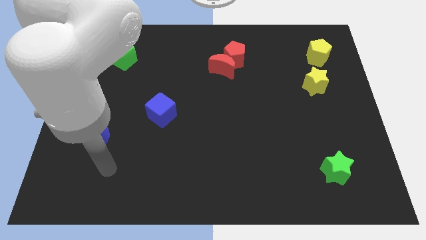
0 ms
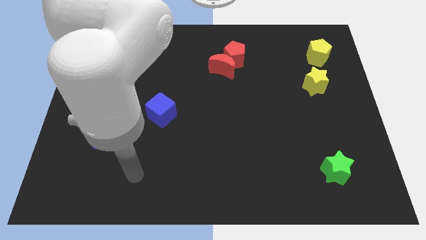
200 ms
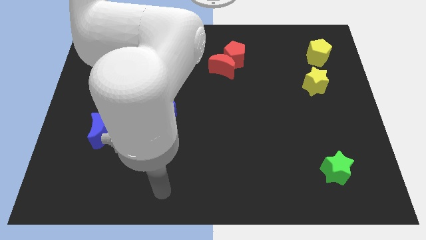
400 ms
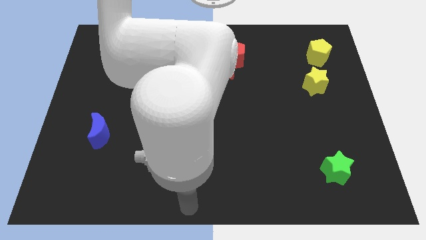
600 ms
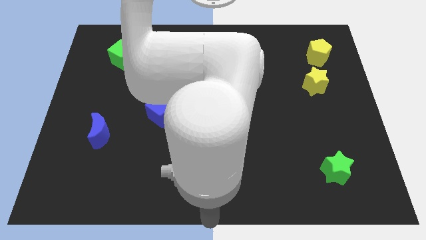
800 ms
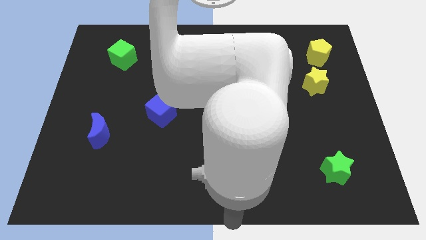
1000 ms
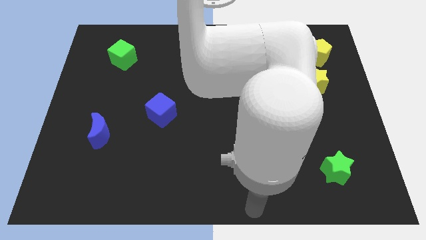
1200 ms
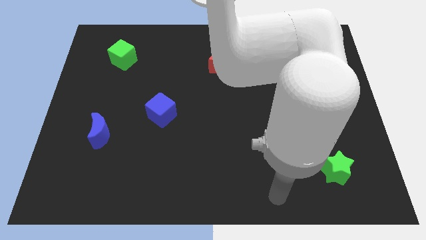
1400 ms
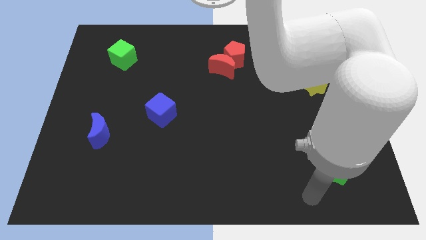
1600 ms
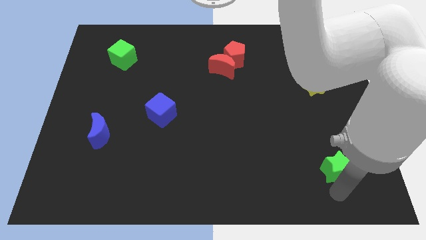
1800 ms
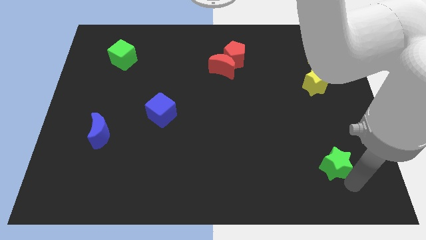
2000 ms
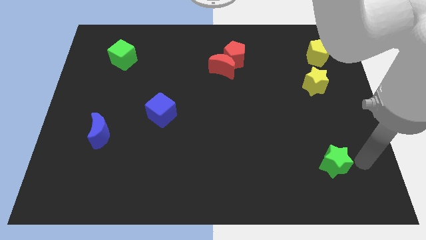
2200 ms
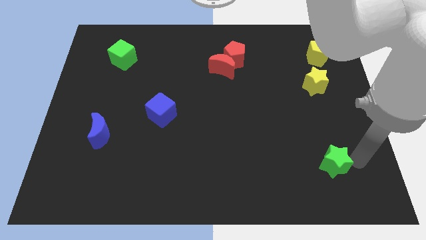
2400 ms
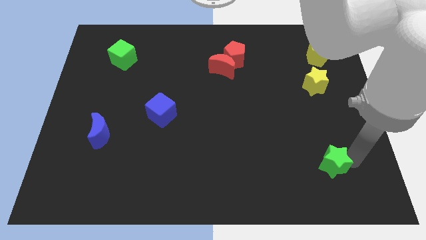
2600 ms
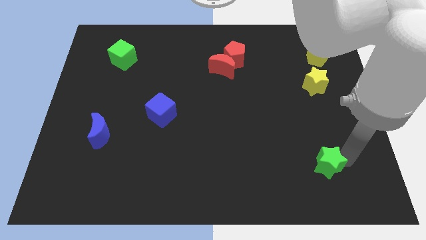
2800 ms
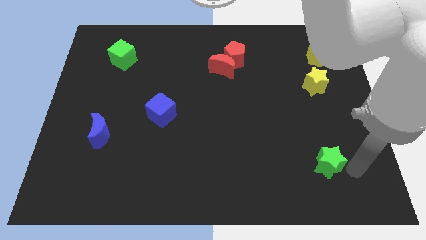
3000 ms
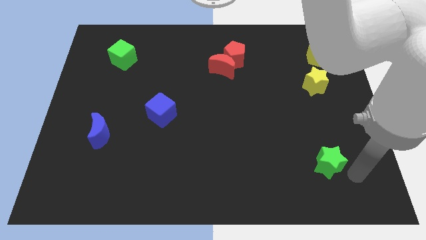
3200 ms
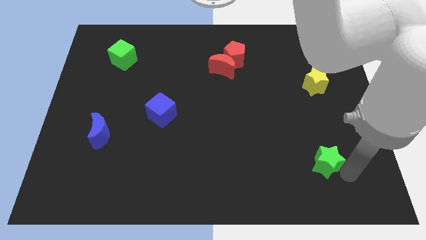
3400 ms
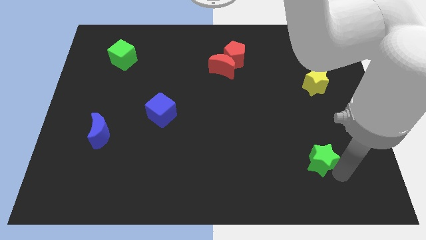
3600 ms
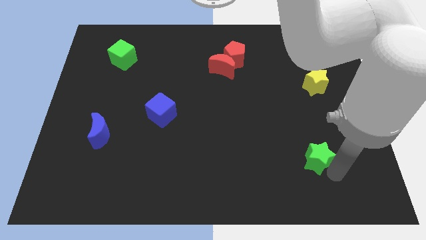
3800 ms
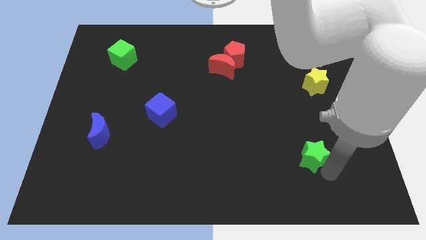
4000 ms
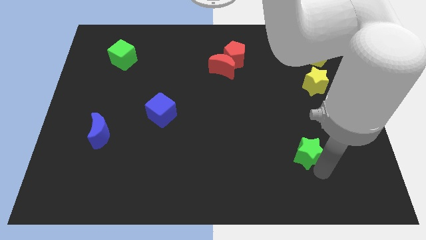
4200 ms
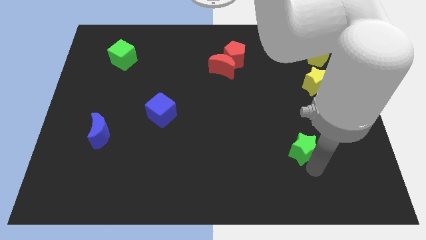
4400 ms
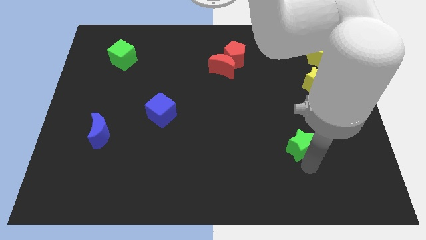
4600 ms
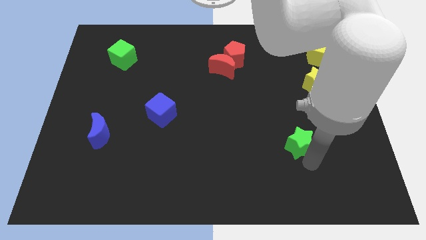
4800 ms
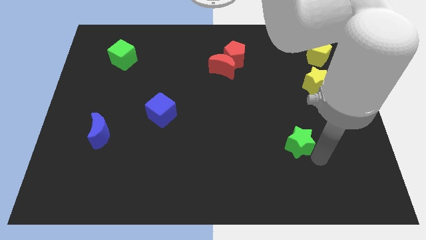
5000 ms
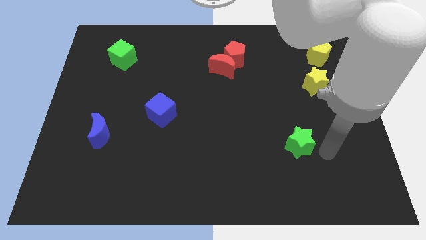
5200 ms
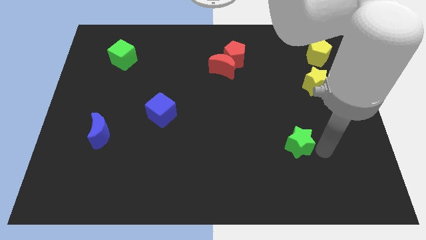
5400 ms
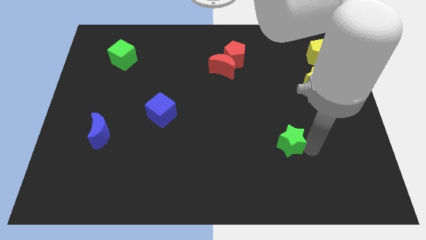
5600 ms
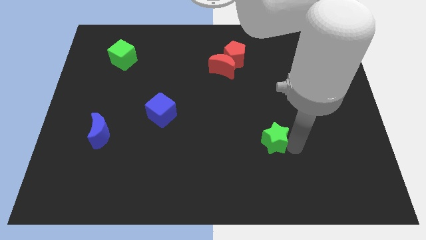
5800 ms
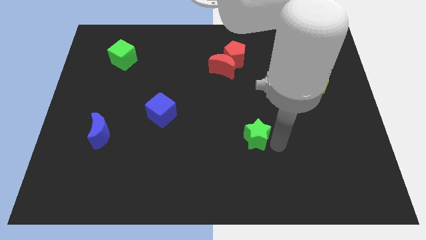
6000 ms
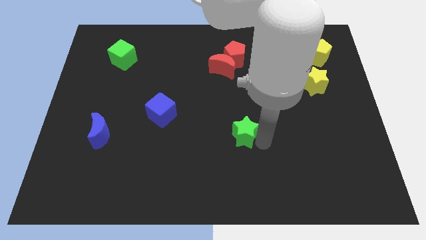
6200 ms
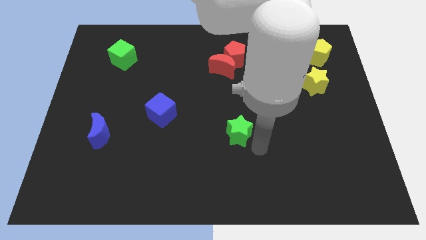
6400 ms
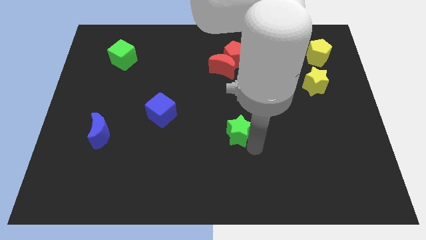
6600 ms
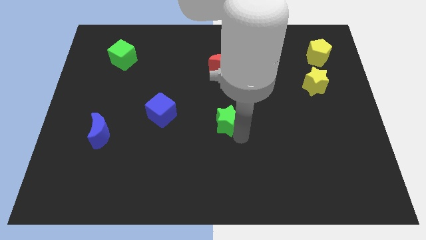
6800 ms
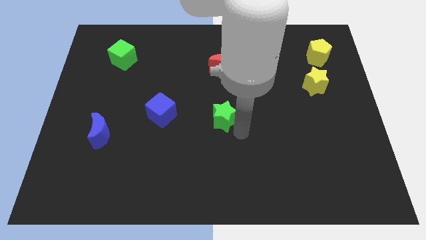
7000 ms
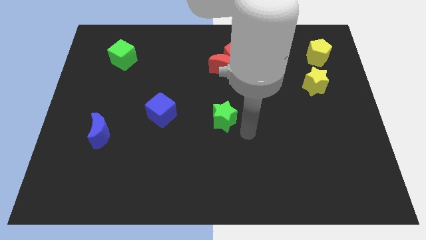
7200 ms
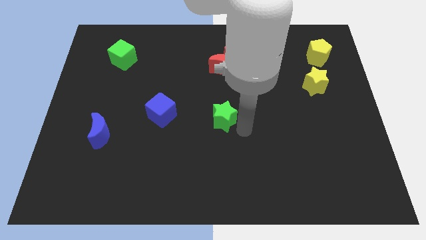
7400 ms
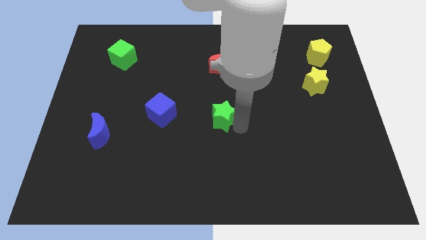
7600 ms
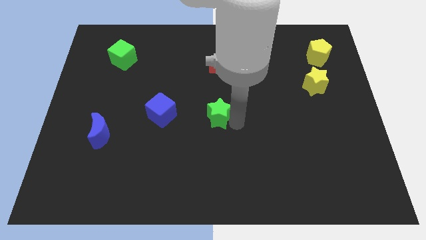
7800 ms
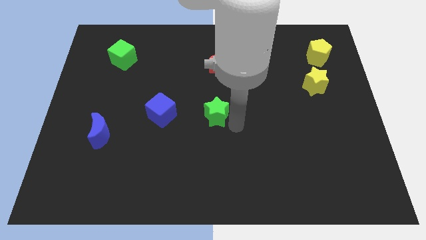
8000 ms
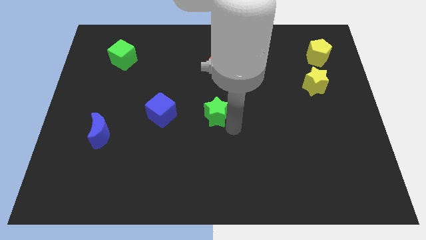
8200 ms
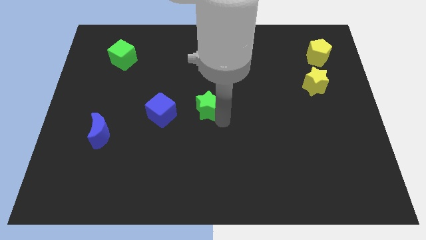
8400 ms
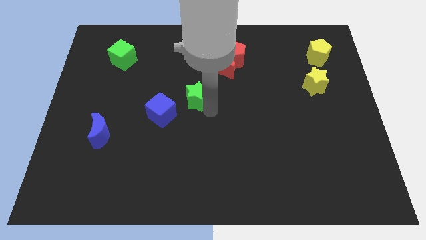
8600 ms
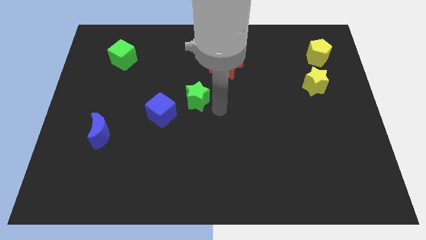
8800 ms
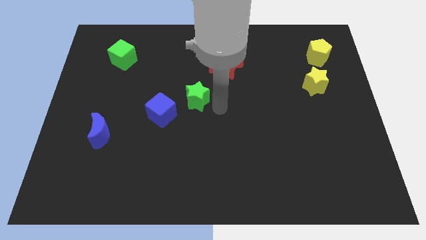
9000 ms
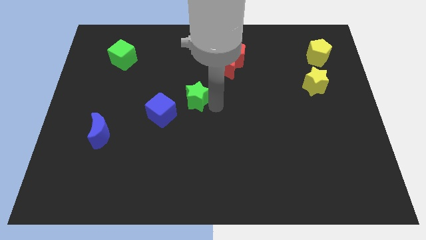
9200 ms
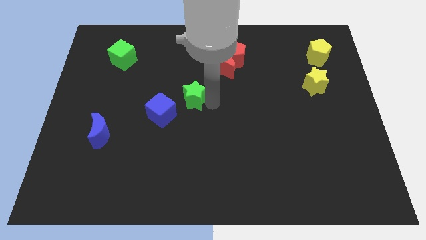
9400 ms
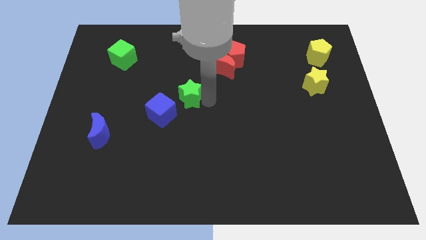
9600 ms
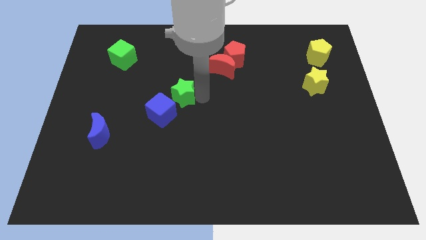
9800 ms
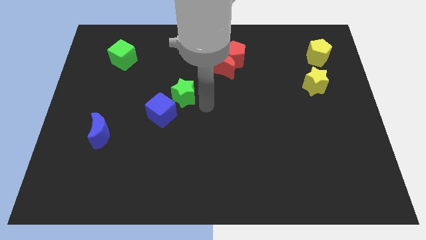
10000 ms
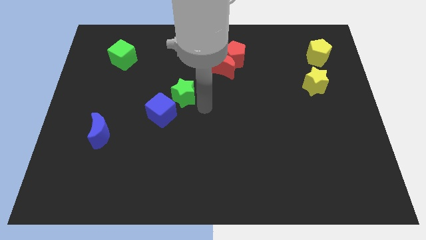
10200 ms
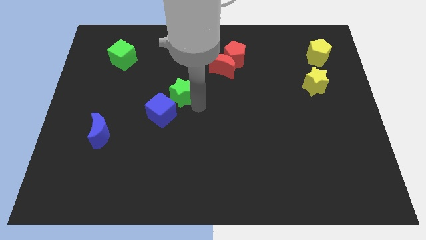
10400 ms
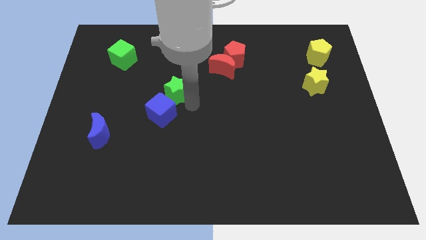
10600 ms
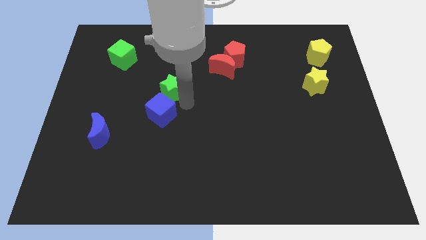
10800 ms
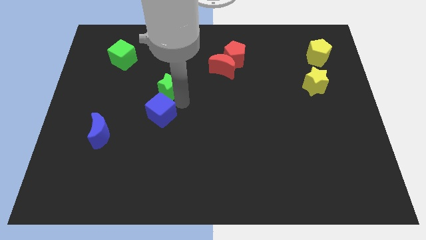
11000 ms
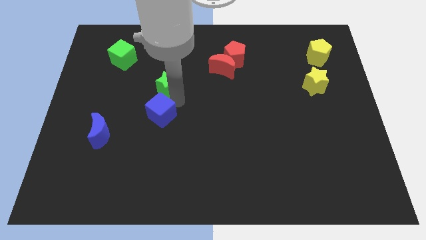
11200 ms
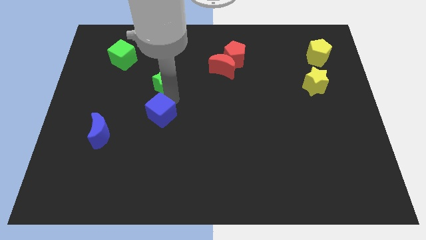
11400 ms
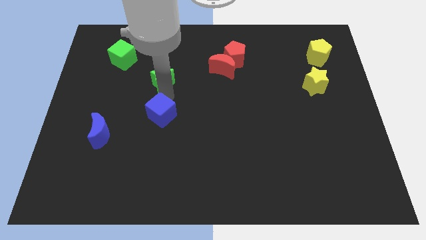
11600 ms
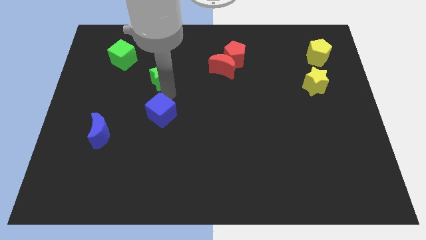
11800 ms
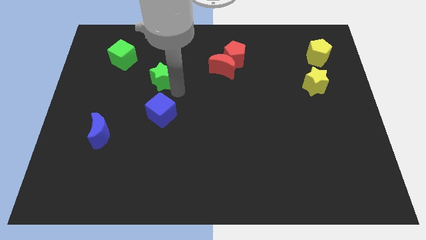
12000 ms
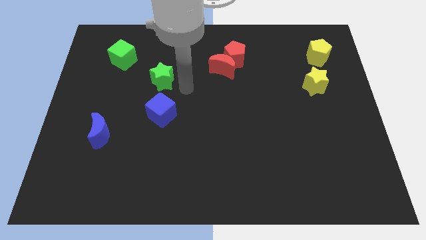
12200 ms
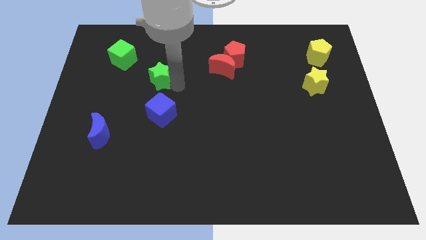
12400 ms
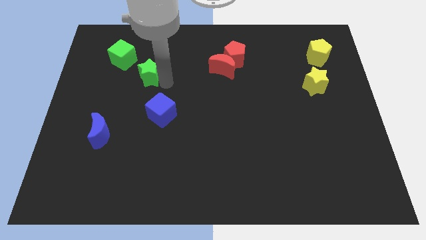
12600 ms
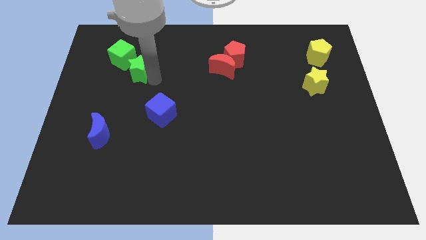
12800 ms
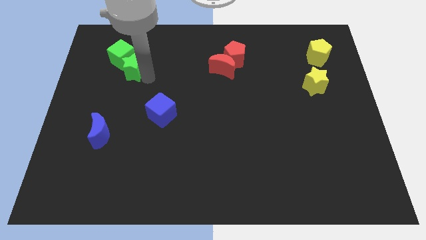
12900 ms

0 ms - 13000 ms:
push the green star next to the green cube

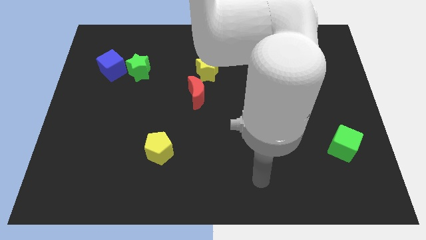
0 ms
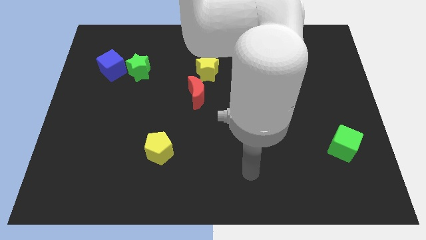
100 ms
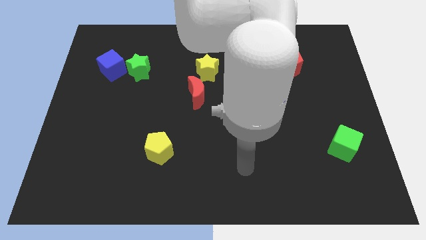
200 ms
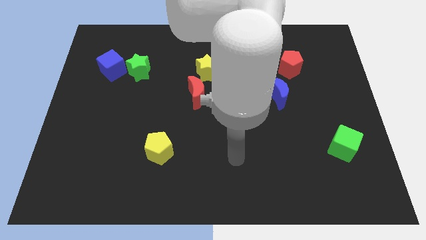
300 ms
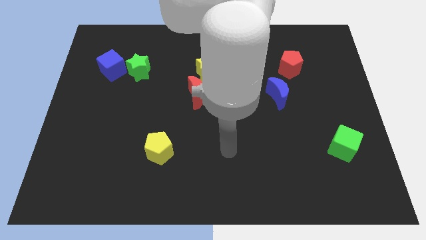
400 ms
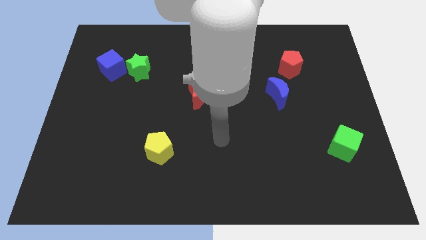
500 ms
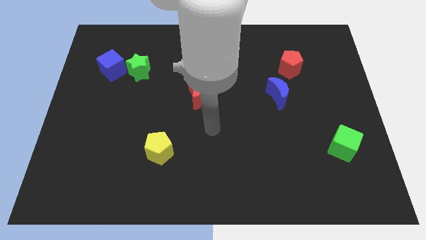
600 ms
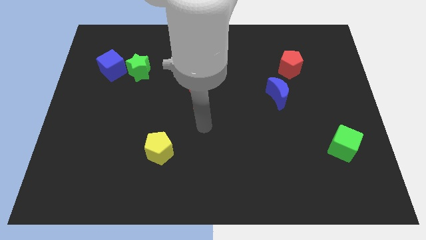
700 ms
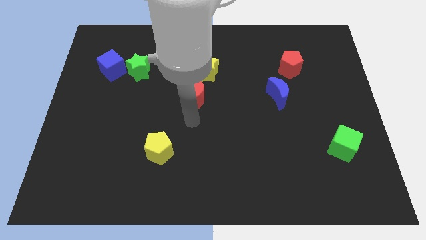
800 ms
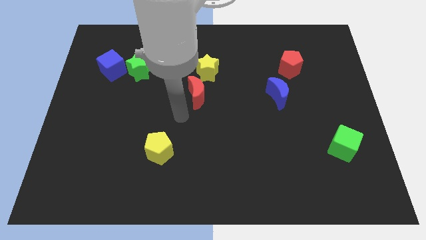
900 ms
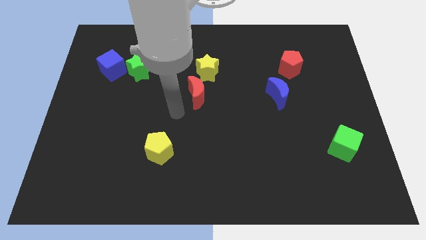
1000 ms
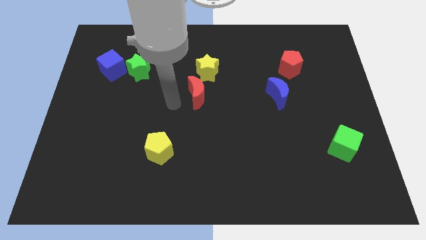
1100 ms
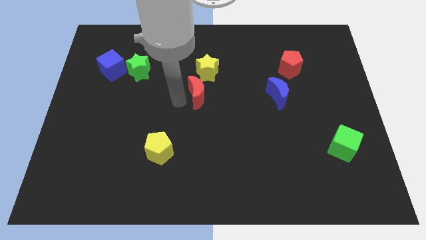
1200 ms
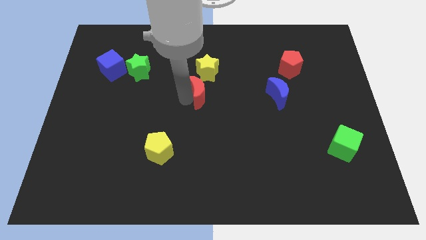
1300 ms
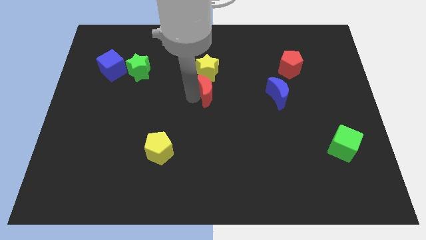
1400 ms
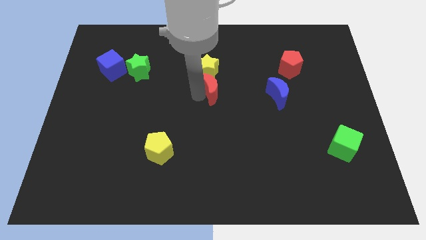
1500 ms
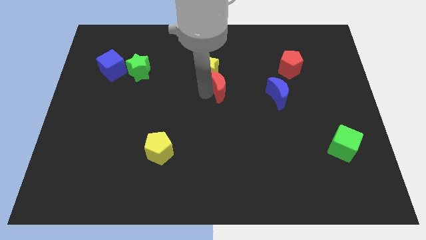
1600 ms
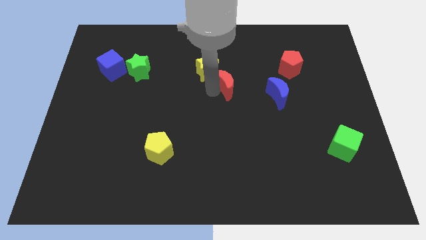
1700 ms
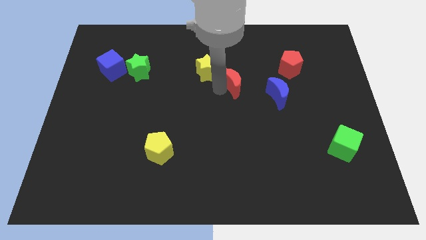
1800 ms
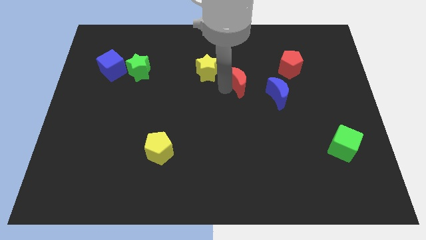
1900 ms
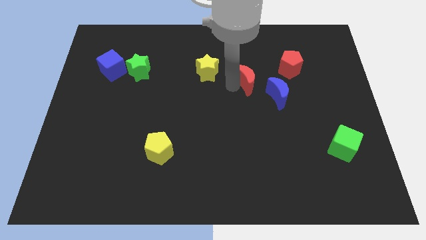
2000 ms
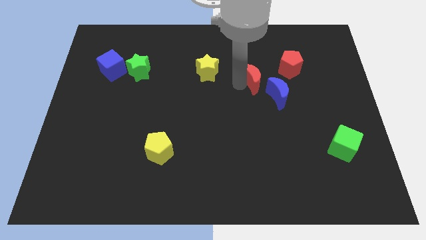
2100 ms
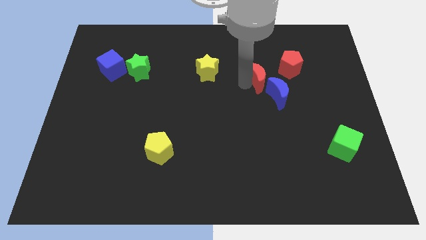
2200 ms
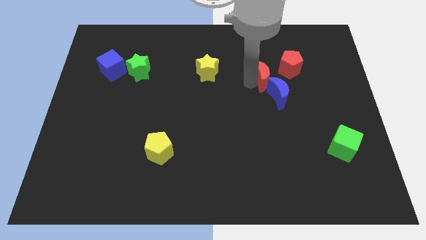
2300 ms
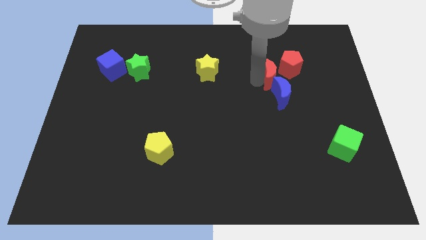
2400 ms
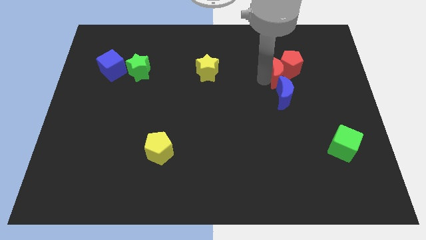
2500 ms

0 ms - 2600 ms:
move the red moon towards the red pentagon
